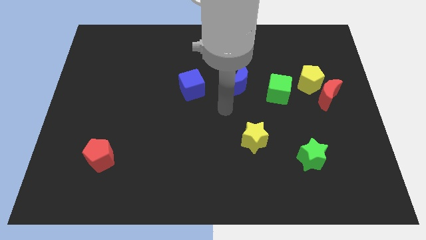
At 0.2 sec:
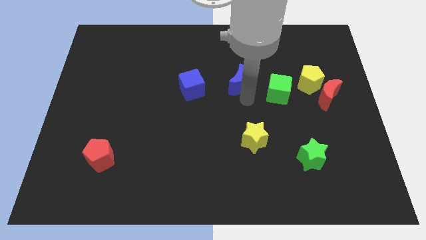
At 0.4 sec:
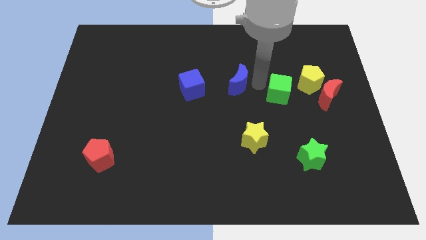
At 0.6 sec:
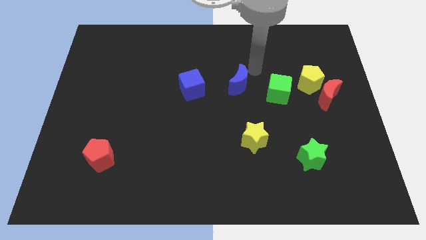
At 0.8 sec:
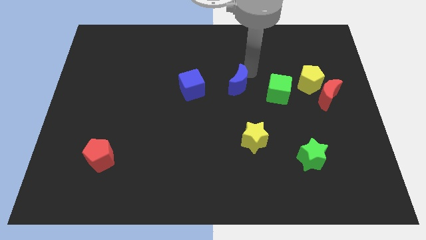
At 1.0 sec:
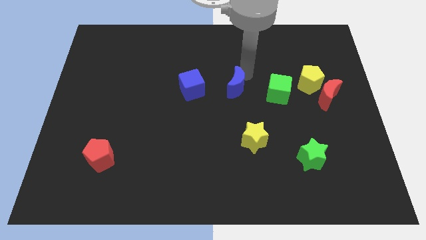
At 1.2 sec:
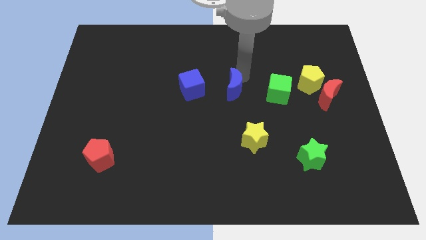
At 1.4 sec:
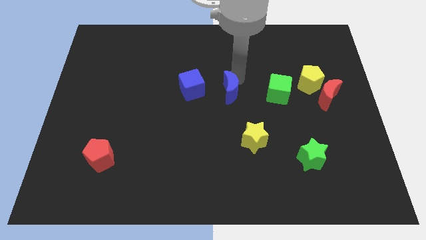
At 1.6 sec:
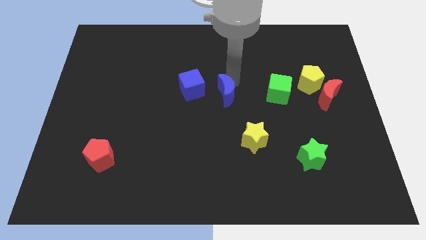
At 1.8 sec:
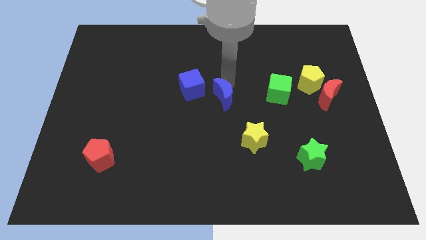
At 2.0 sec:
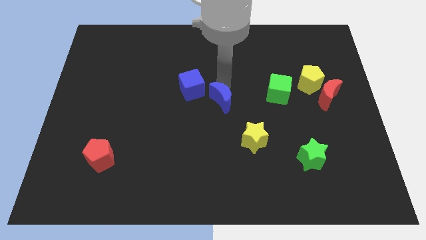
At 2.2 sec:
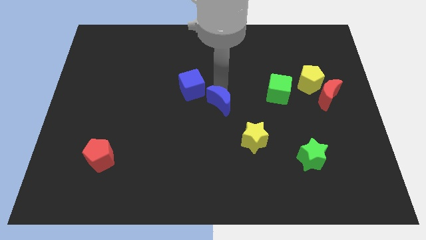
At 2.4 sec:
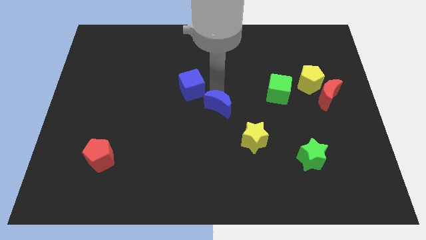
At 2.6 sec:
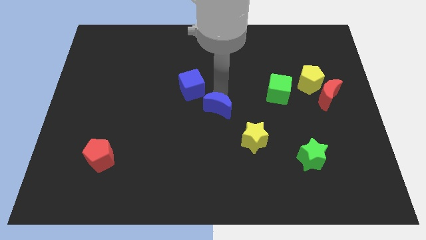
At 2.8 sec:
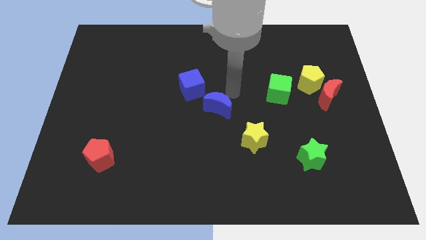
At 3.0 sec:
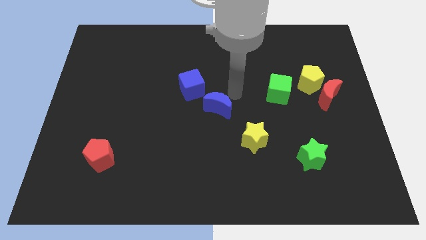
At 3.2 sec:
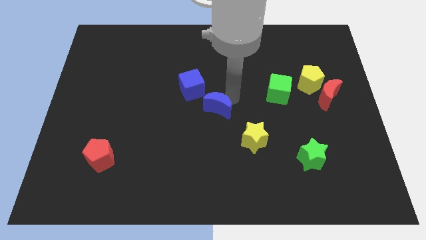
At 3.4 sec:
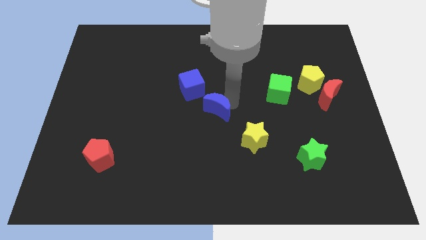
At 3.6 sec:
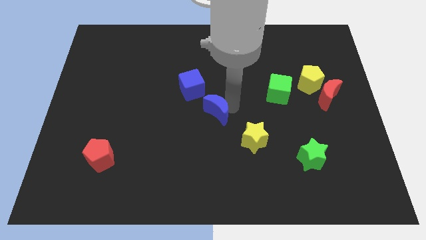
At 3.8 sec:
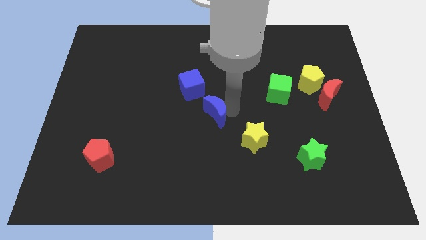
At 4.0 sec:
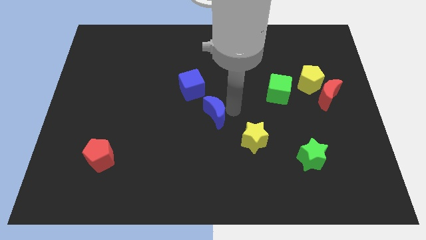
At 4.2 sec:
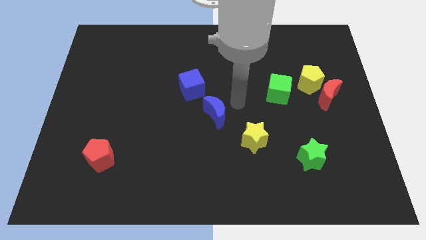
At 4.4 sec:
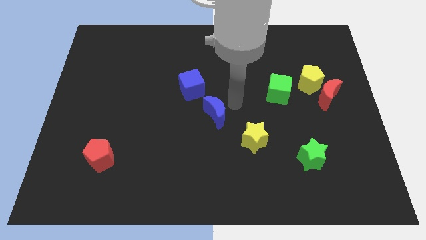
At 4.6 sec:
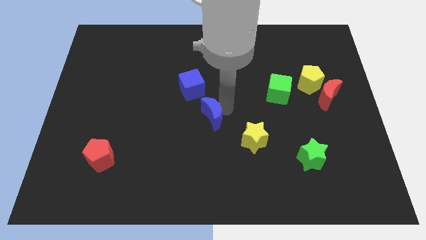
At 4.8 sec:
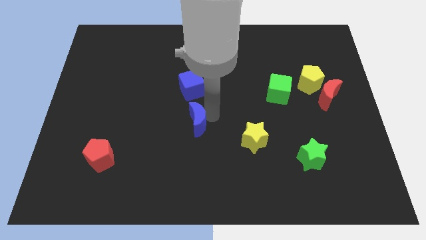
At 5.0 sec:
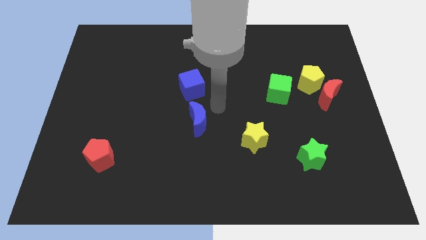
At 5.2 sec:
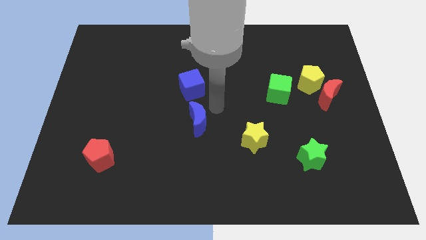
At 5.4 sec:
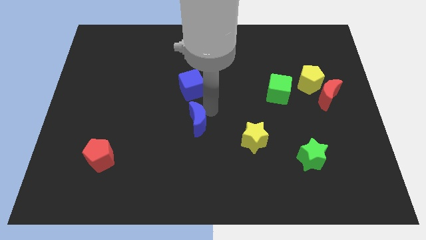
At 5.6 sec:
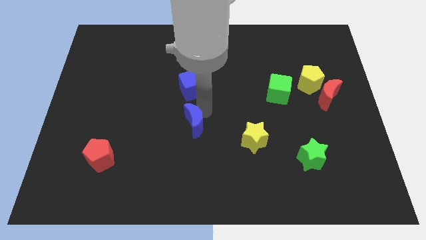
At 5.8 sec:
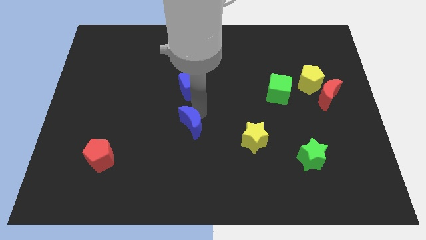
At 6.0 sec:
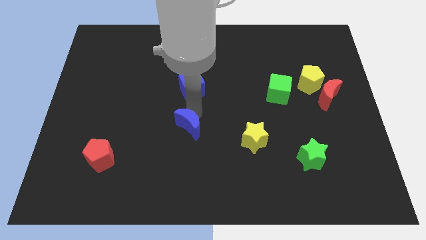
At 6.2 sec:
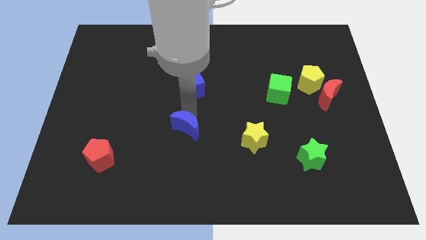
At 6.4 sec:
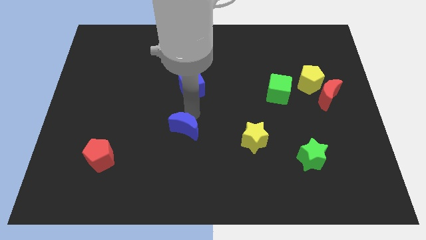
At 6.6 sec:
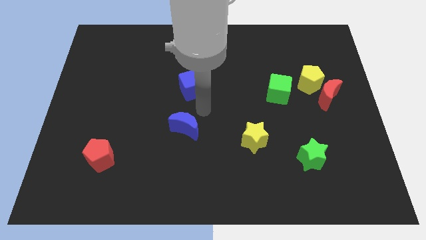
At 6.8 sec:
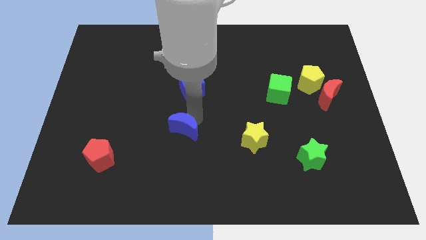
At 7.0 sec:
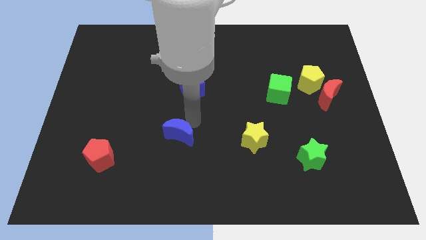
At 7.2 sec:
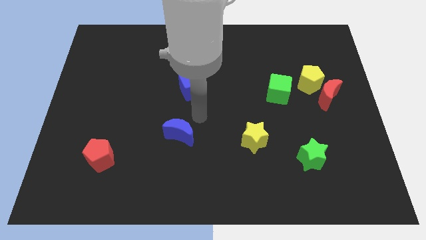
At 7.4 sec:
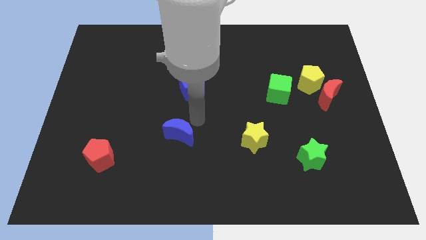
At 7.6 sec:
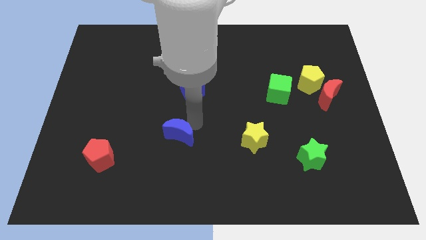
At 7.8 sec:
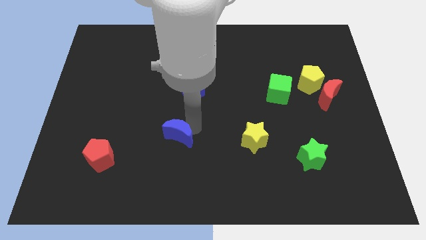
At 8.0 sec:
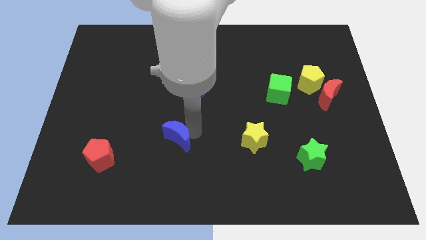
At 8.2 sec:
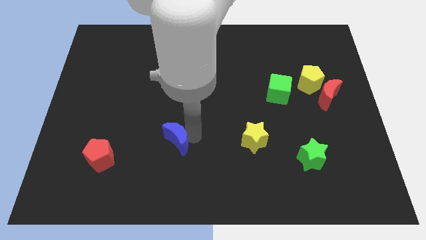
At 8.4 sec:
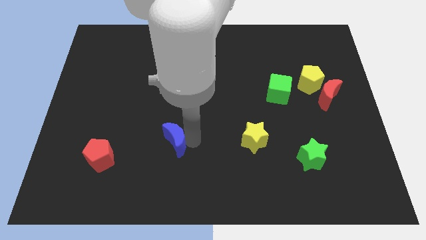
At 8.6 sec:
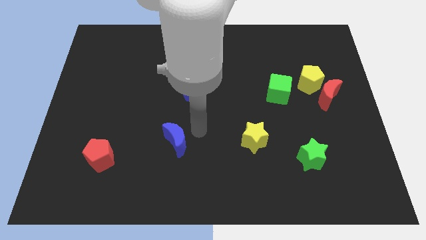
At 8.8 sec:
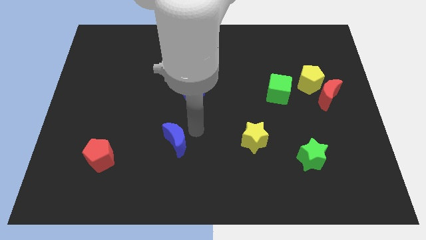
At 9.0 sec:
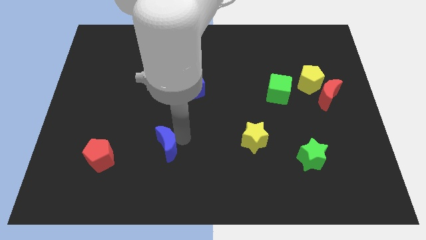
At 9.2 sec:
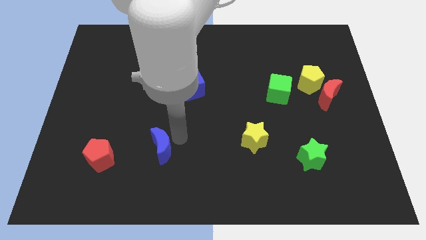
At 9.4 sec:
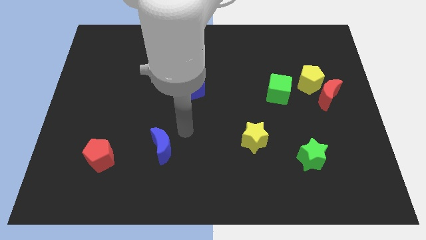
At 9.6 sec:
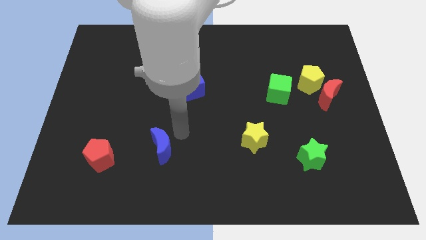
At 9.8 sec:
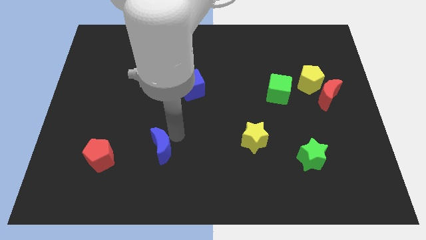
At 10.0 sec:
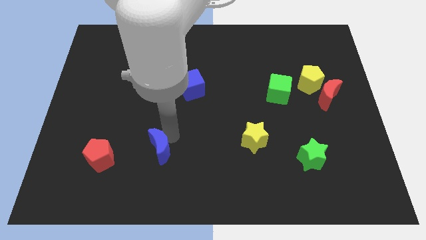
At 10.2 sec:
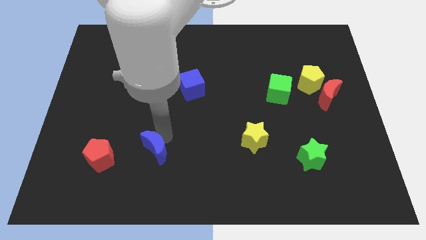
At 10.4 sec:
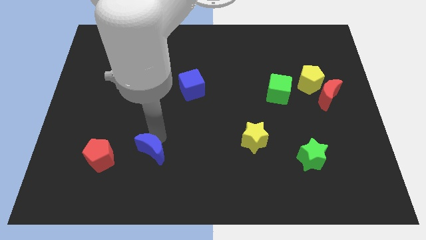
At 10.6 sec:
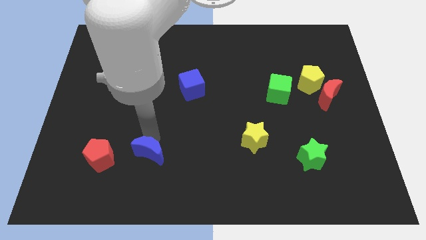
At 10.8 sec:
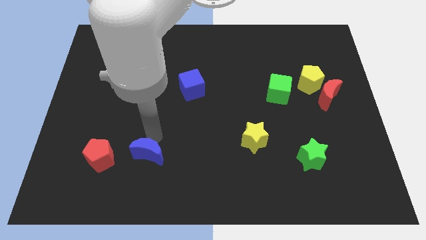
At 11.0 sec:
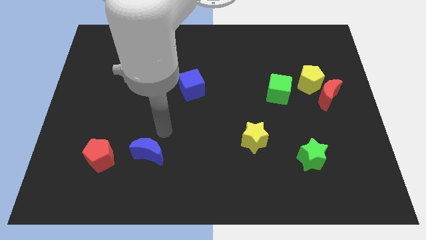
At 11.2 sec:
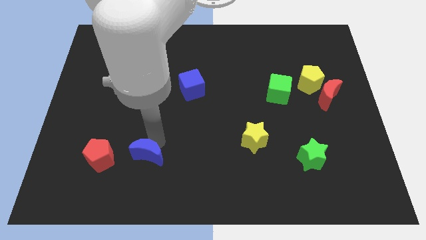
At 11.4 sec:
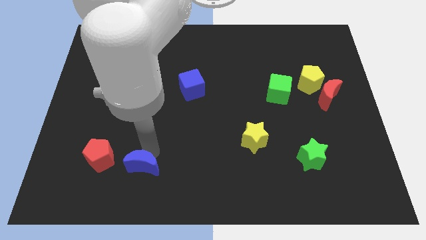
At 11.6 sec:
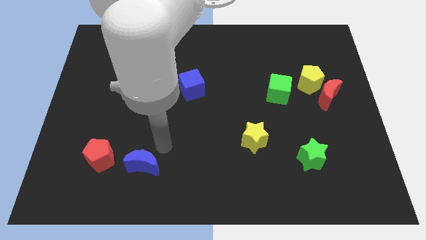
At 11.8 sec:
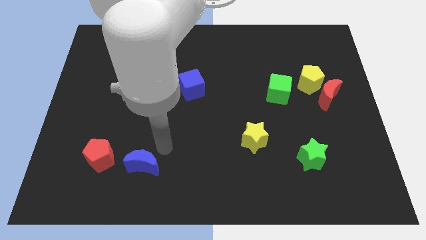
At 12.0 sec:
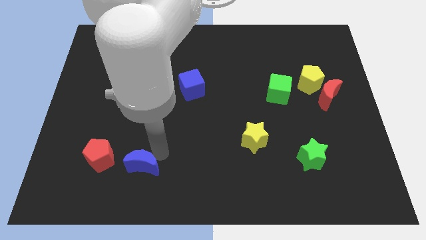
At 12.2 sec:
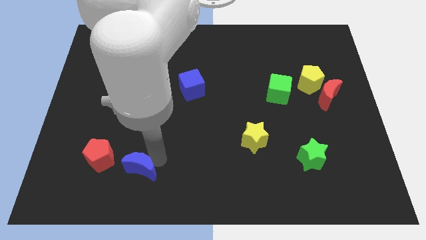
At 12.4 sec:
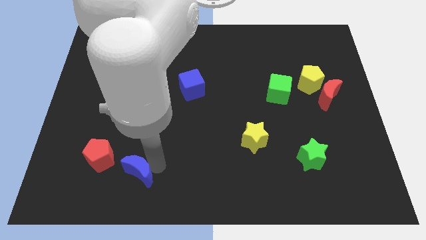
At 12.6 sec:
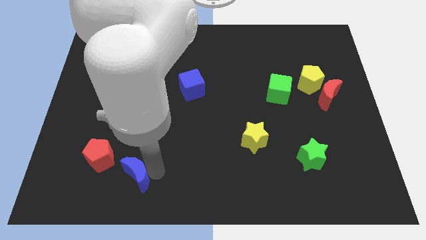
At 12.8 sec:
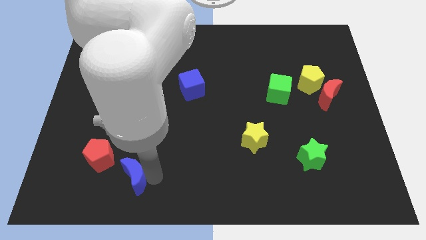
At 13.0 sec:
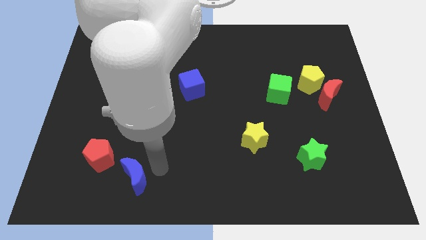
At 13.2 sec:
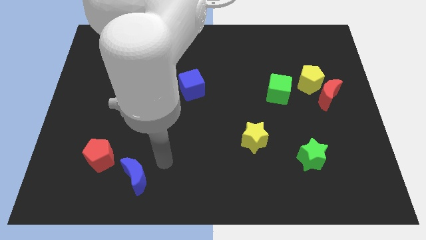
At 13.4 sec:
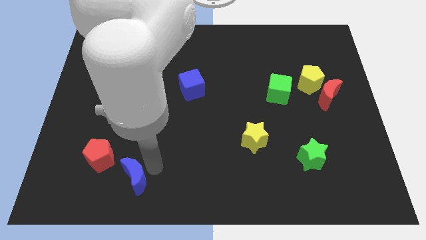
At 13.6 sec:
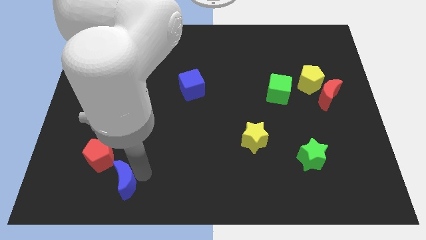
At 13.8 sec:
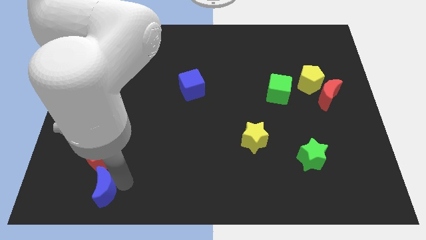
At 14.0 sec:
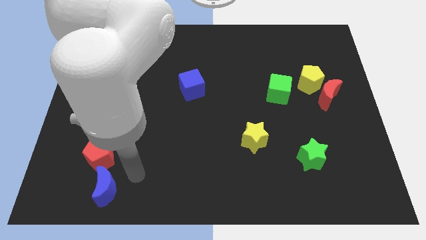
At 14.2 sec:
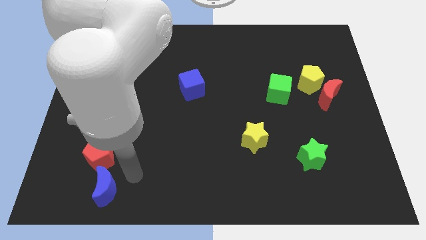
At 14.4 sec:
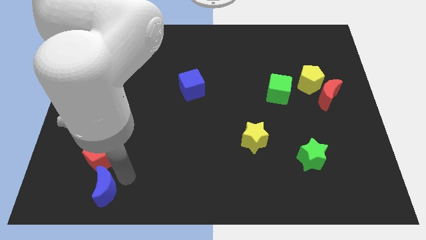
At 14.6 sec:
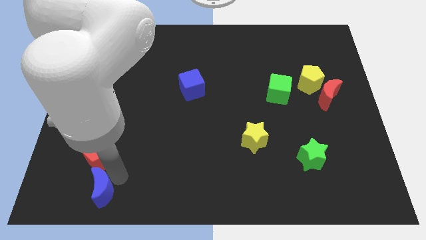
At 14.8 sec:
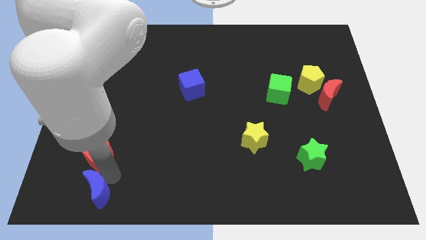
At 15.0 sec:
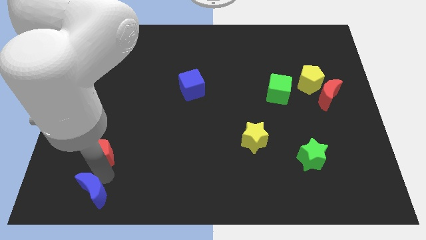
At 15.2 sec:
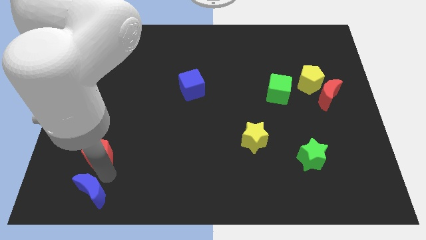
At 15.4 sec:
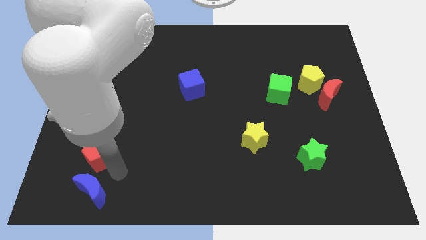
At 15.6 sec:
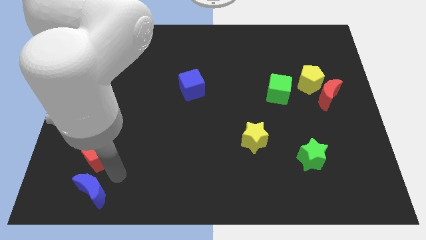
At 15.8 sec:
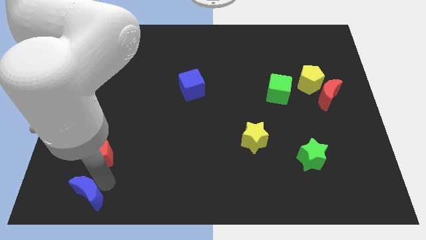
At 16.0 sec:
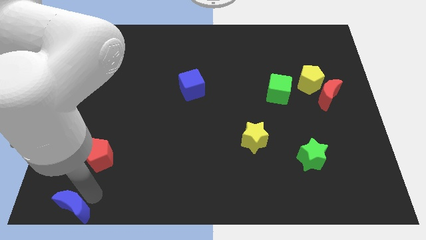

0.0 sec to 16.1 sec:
slide the blue moon to the bottom left of the board
